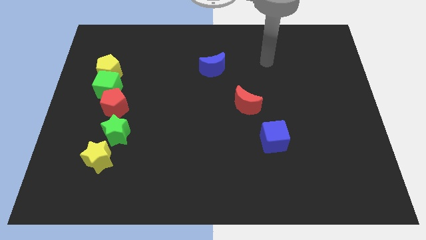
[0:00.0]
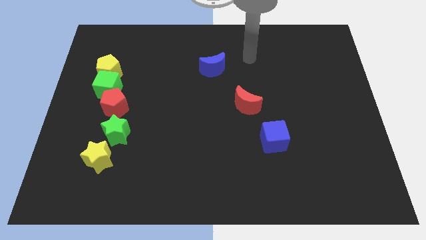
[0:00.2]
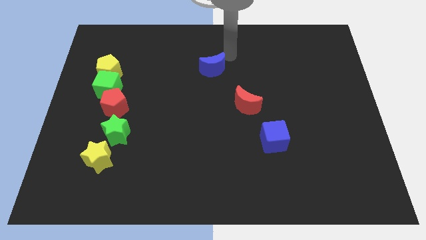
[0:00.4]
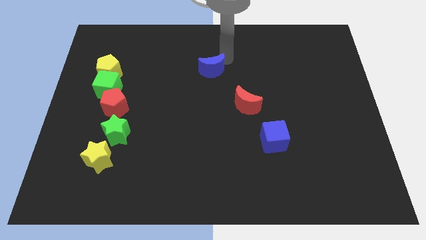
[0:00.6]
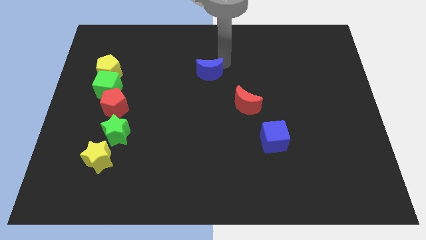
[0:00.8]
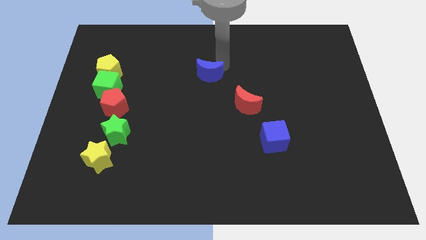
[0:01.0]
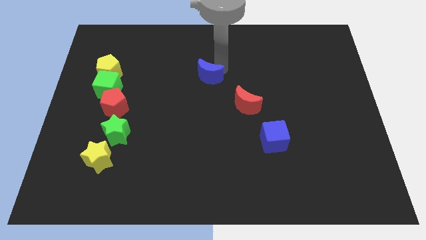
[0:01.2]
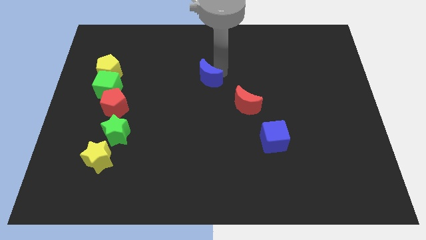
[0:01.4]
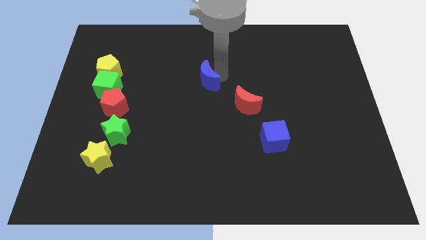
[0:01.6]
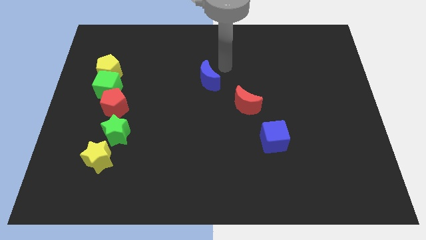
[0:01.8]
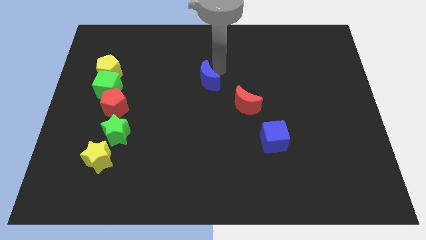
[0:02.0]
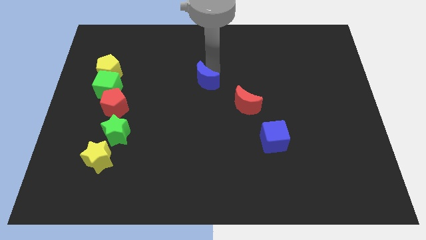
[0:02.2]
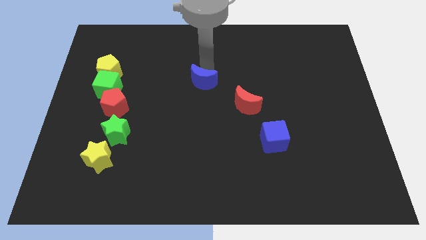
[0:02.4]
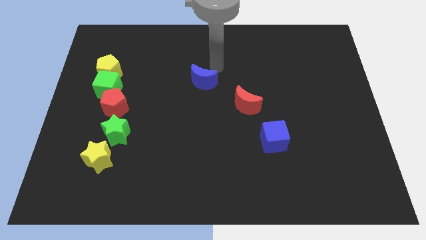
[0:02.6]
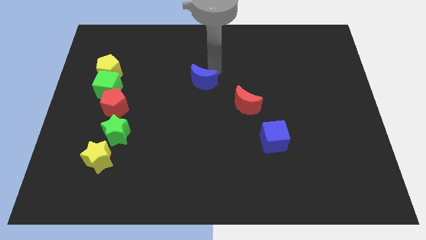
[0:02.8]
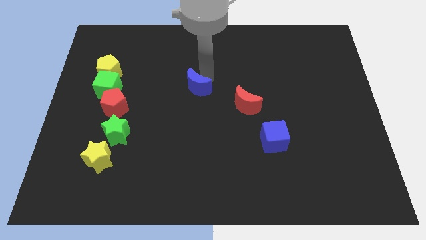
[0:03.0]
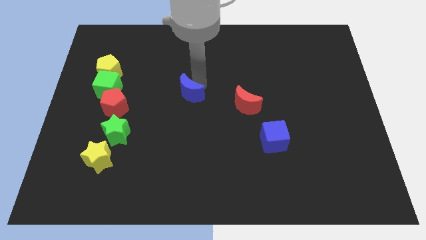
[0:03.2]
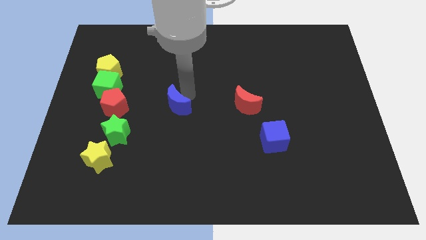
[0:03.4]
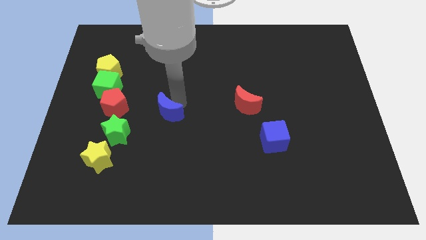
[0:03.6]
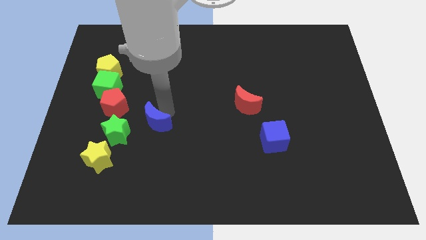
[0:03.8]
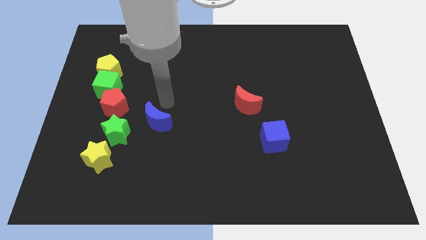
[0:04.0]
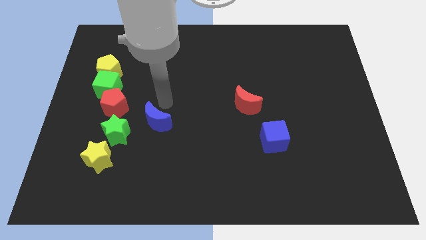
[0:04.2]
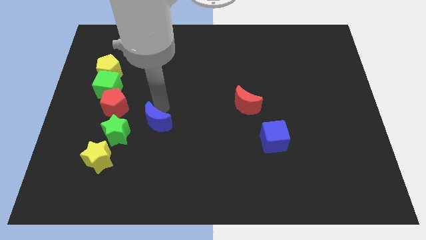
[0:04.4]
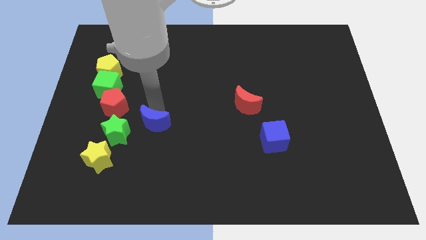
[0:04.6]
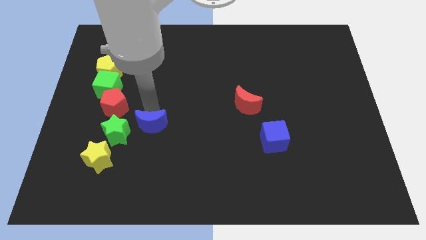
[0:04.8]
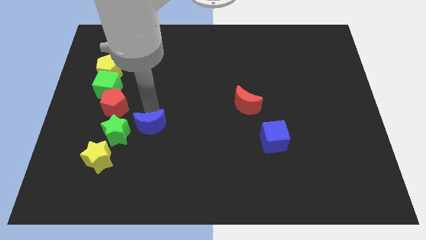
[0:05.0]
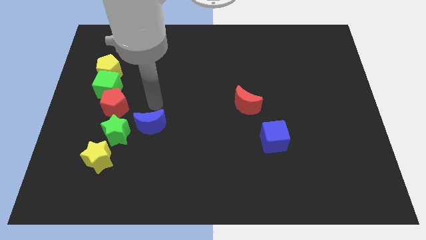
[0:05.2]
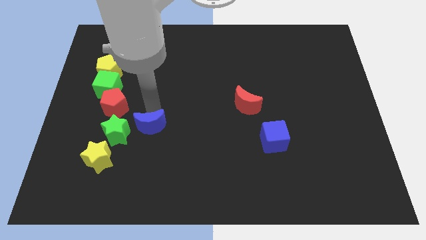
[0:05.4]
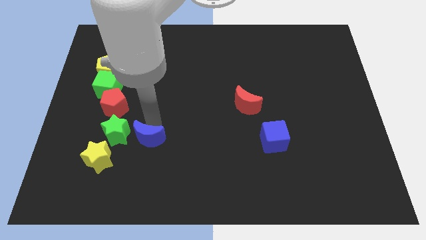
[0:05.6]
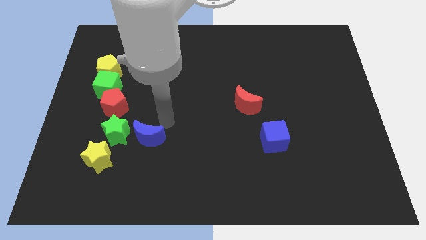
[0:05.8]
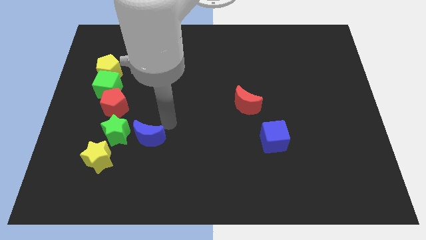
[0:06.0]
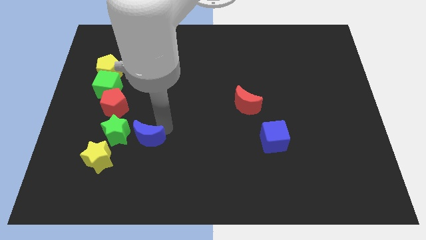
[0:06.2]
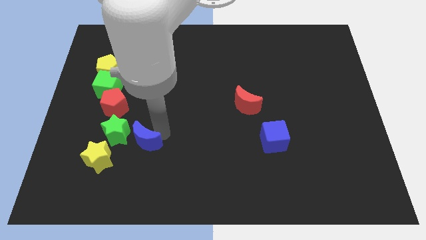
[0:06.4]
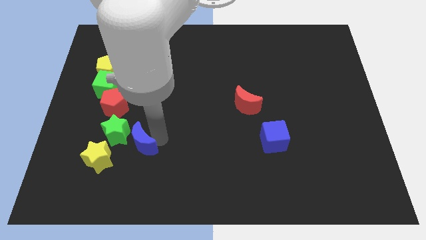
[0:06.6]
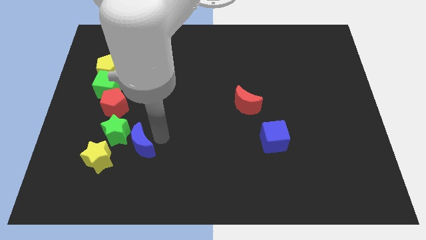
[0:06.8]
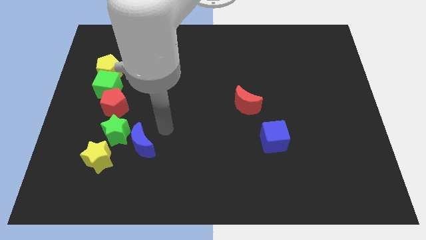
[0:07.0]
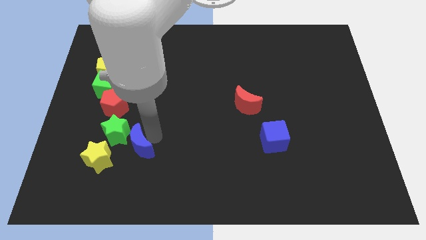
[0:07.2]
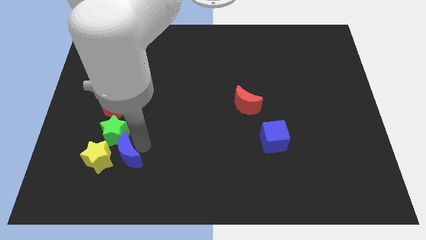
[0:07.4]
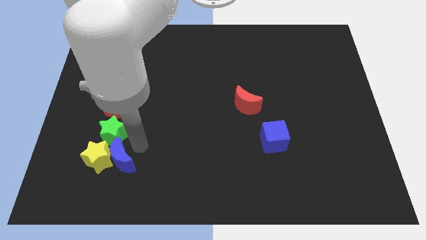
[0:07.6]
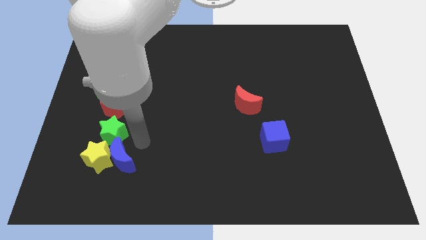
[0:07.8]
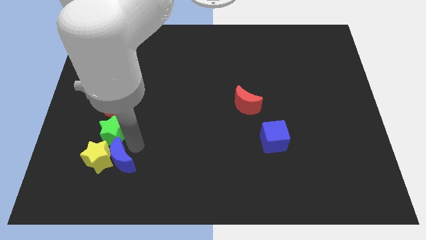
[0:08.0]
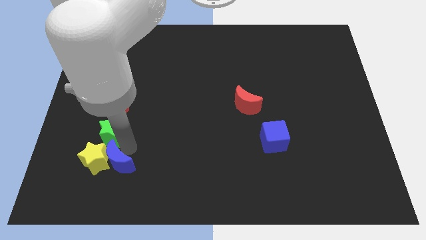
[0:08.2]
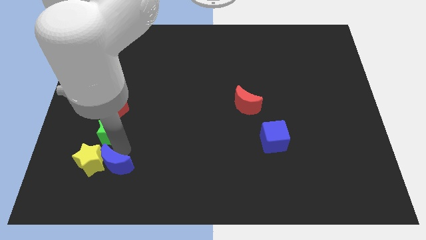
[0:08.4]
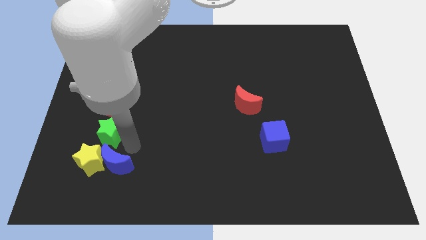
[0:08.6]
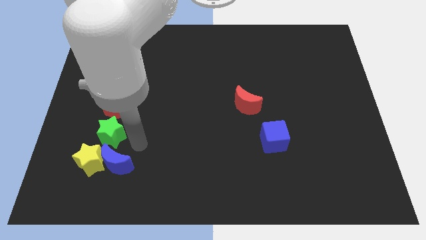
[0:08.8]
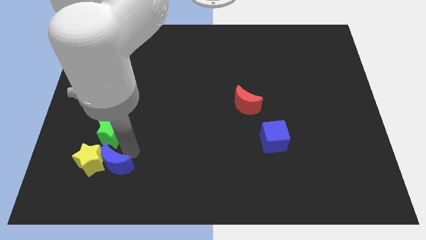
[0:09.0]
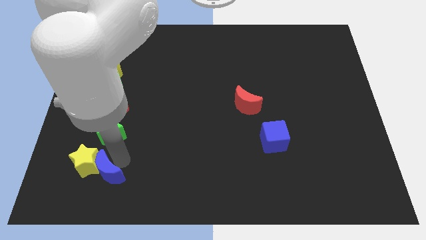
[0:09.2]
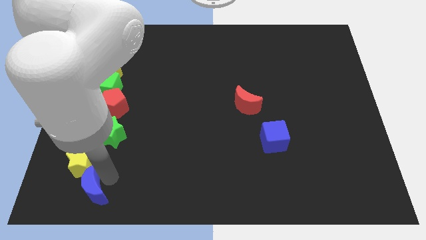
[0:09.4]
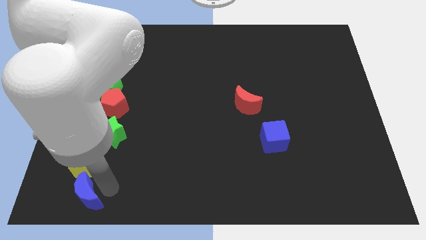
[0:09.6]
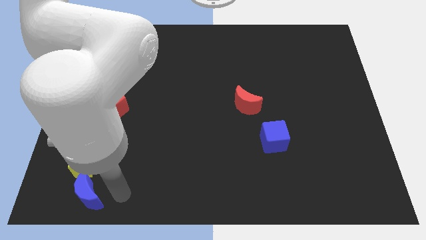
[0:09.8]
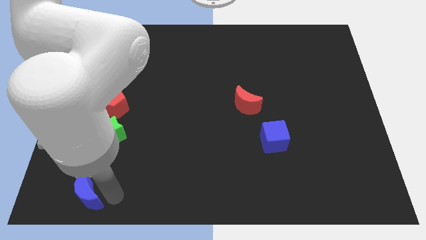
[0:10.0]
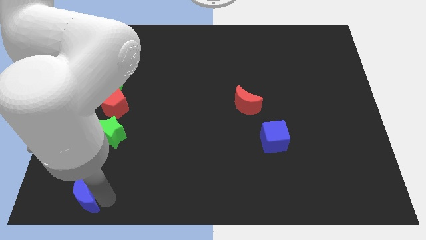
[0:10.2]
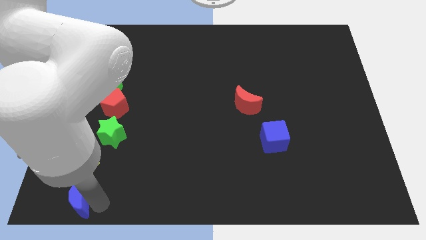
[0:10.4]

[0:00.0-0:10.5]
slide the blue moon to the bottom left

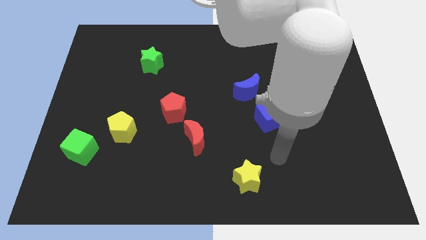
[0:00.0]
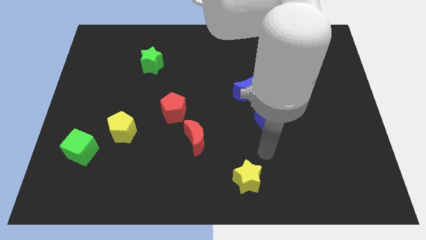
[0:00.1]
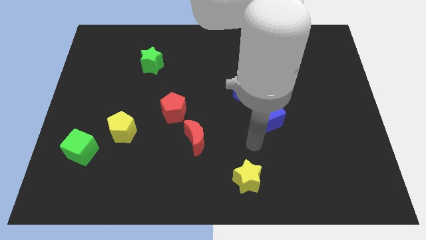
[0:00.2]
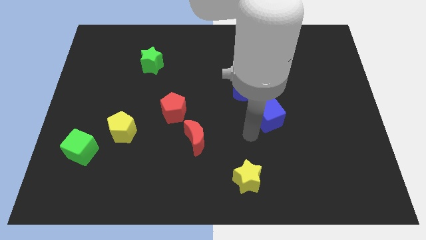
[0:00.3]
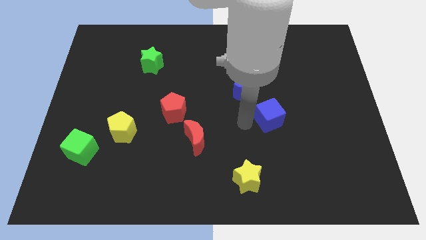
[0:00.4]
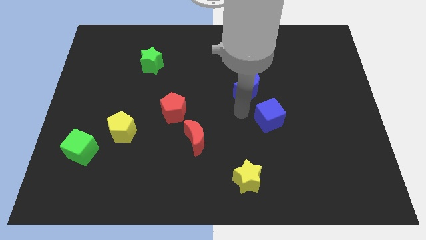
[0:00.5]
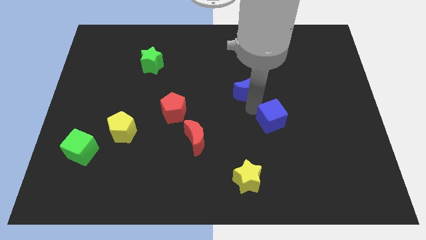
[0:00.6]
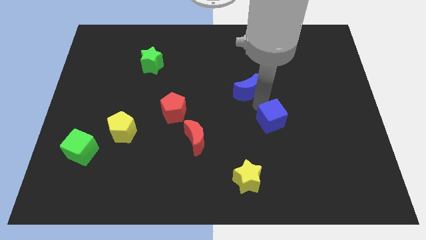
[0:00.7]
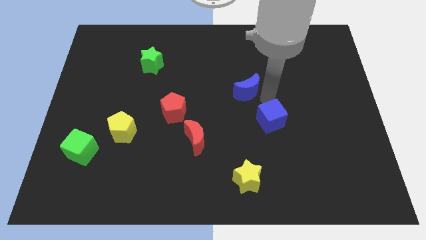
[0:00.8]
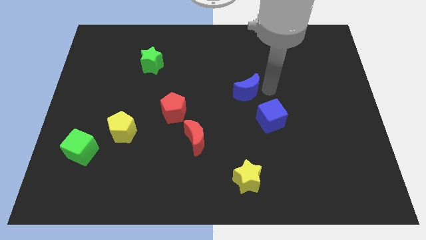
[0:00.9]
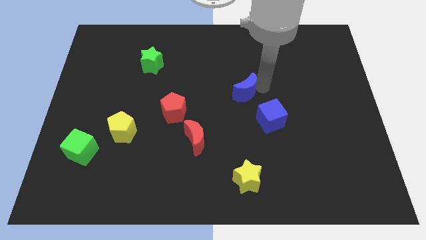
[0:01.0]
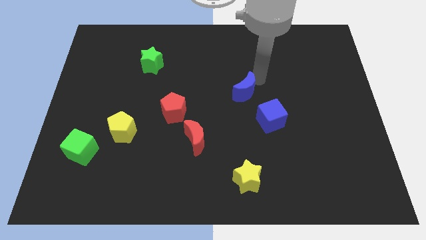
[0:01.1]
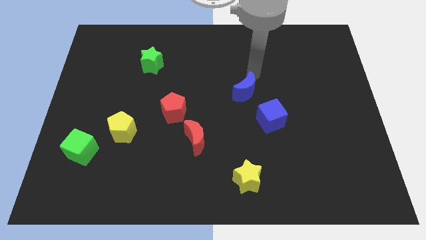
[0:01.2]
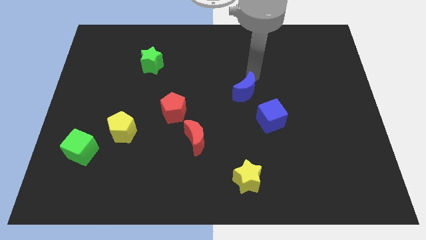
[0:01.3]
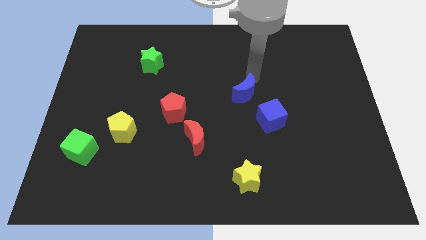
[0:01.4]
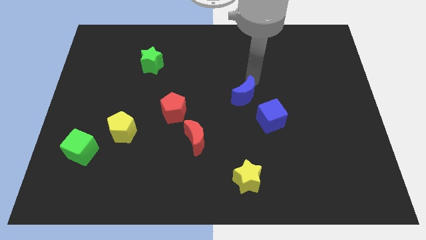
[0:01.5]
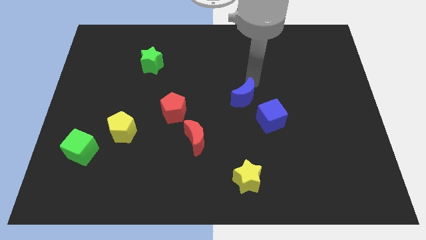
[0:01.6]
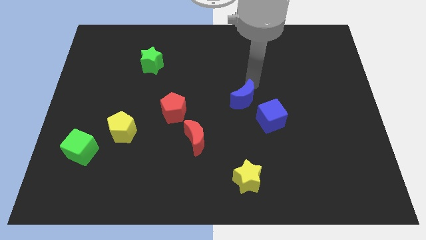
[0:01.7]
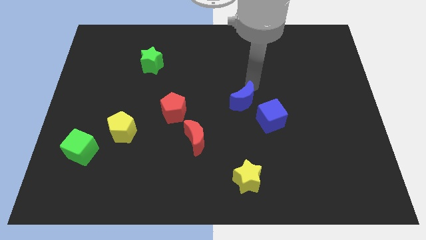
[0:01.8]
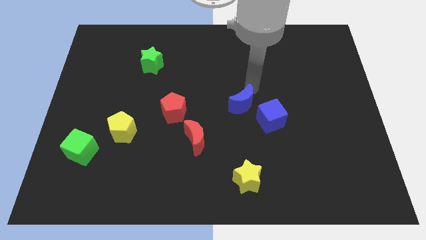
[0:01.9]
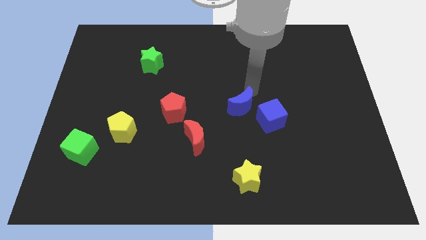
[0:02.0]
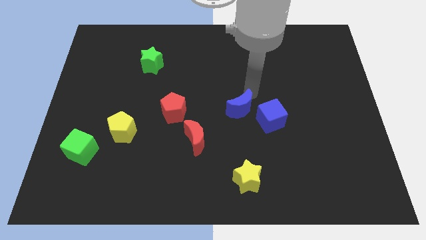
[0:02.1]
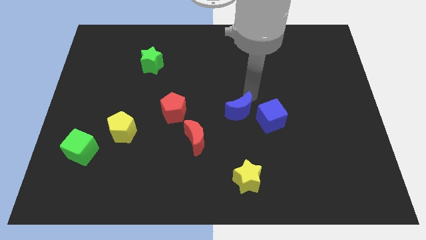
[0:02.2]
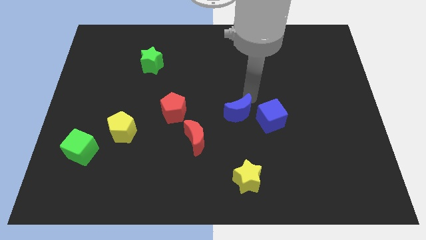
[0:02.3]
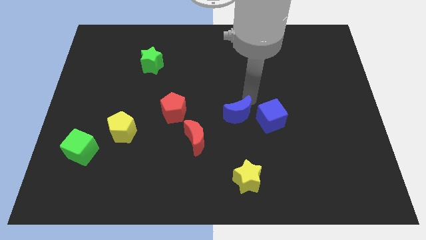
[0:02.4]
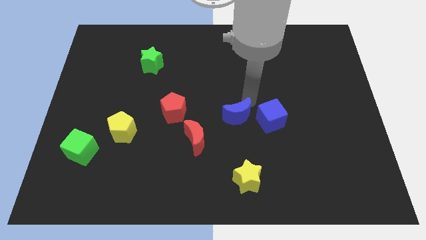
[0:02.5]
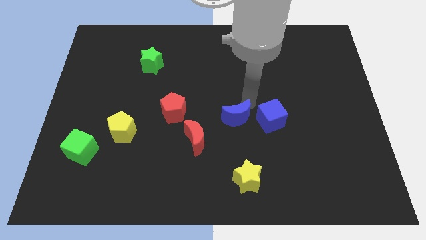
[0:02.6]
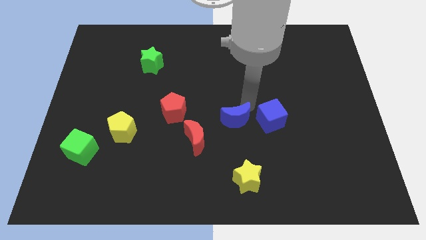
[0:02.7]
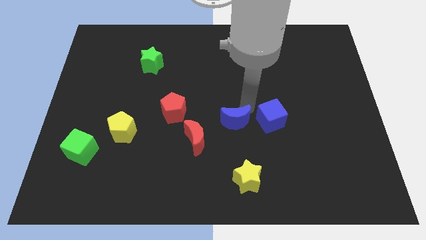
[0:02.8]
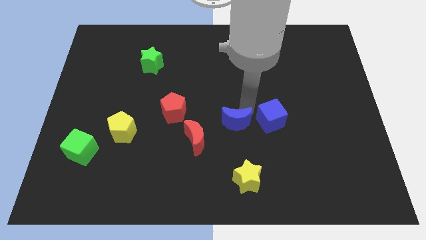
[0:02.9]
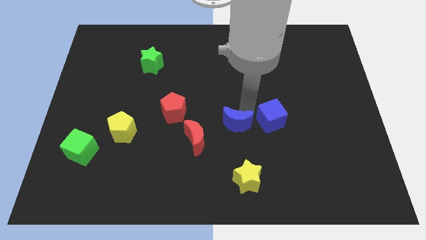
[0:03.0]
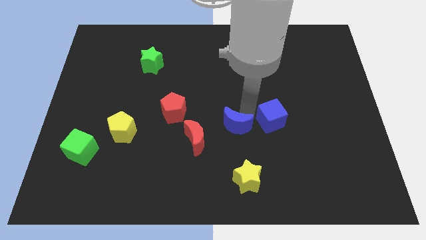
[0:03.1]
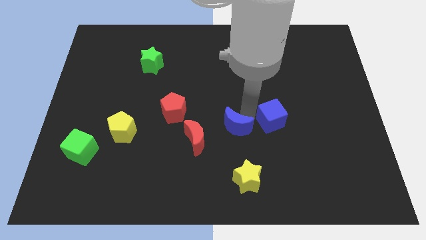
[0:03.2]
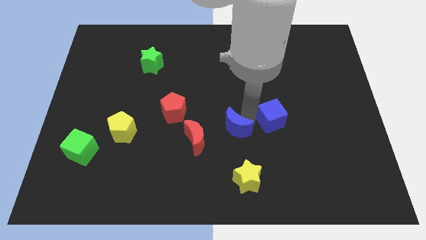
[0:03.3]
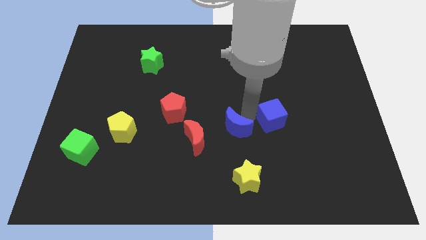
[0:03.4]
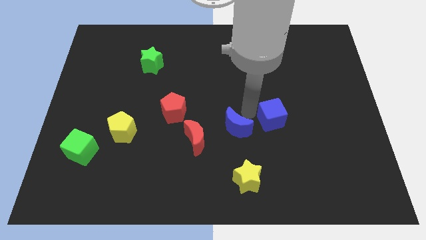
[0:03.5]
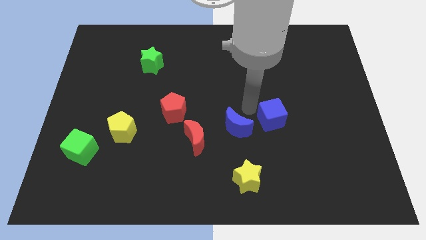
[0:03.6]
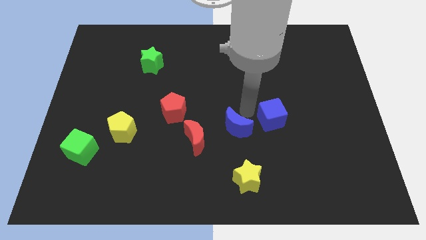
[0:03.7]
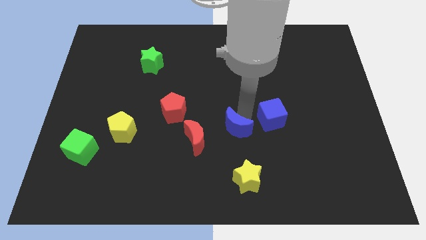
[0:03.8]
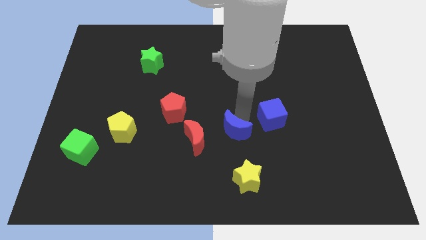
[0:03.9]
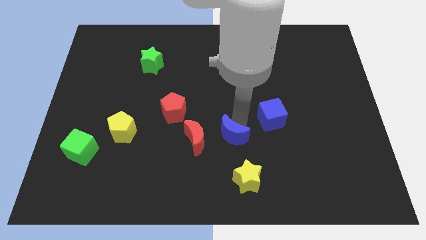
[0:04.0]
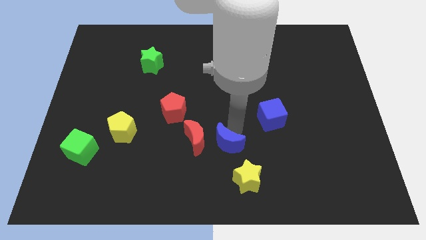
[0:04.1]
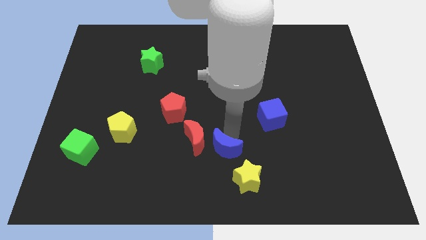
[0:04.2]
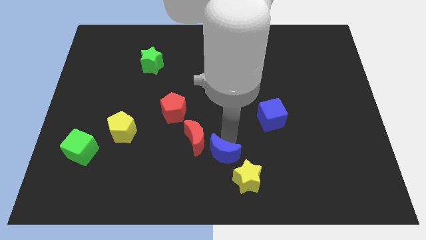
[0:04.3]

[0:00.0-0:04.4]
move the blue moon to the bottom side
